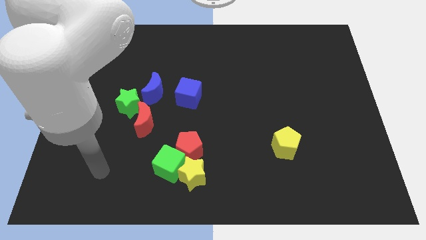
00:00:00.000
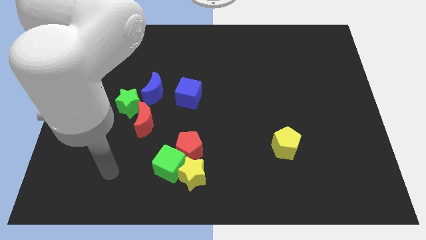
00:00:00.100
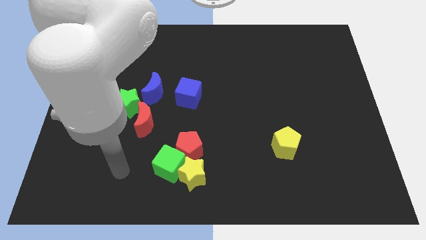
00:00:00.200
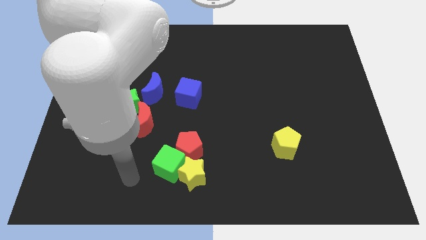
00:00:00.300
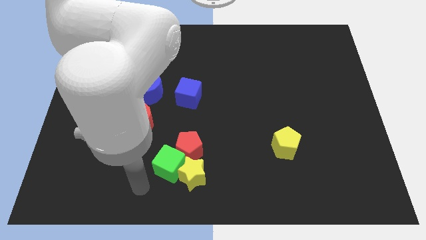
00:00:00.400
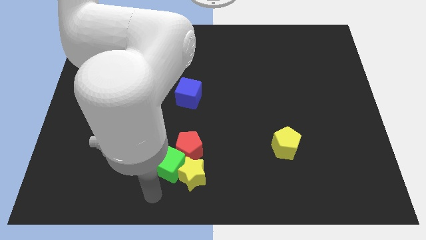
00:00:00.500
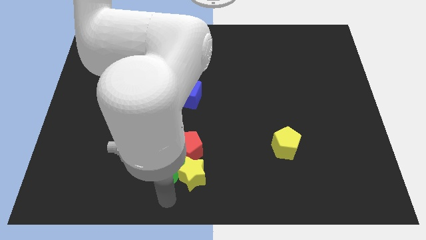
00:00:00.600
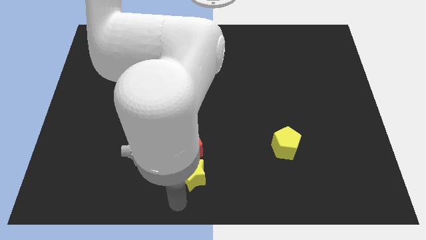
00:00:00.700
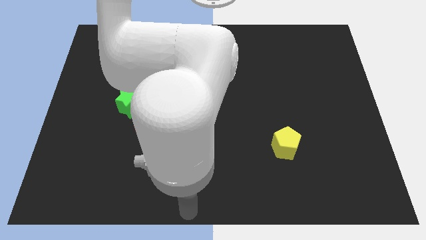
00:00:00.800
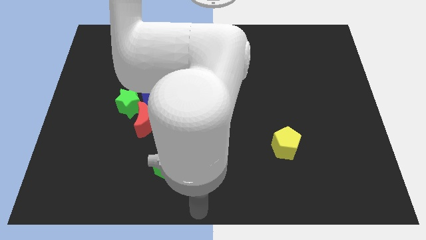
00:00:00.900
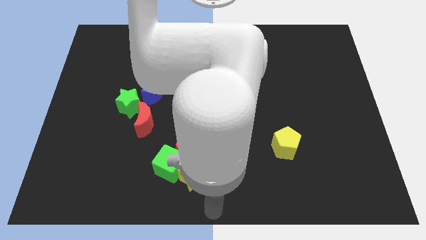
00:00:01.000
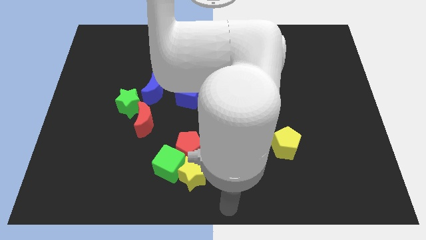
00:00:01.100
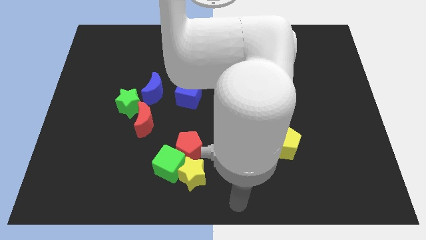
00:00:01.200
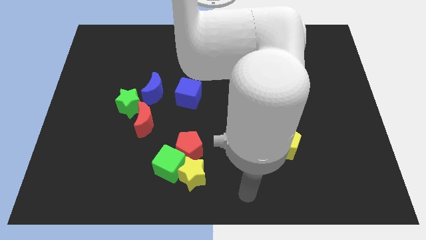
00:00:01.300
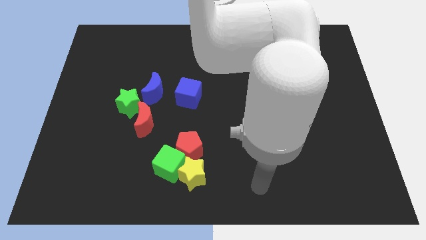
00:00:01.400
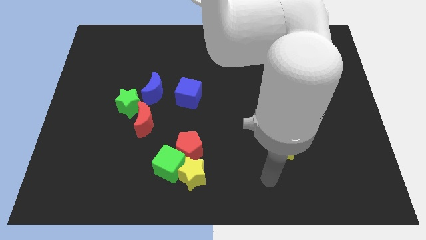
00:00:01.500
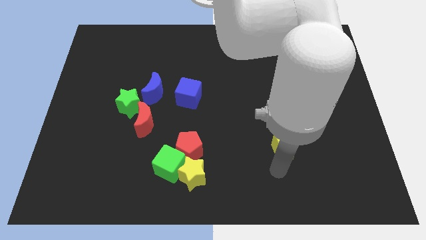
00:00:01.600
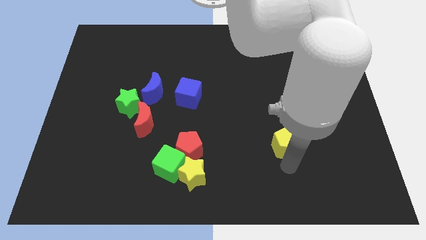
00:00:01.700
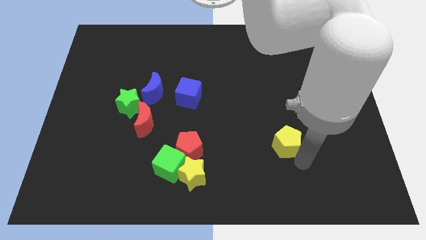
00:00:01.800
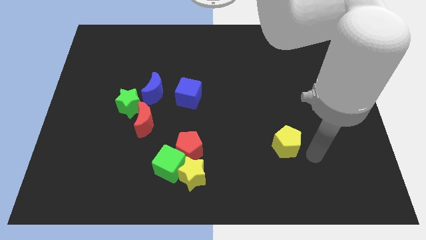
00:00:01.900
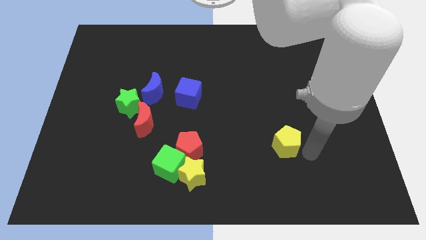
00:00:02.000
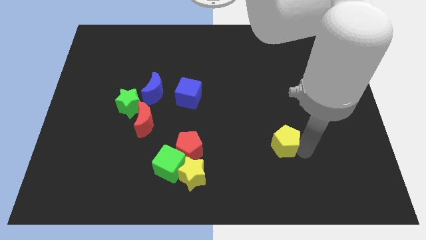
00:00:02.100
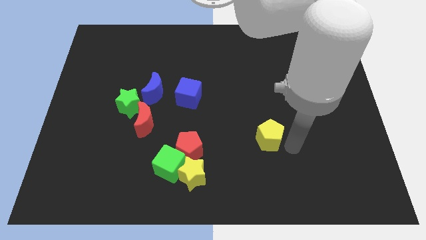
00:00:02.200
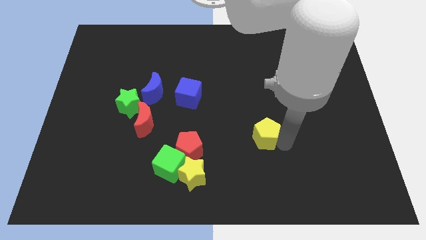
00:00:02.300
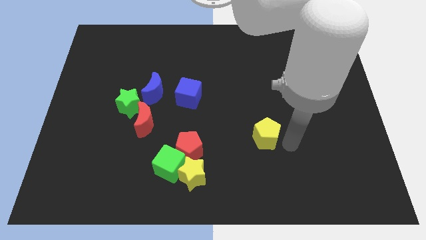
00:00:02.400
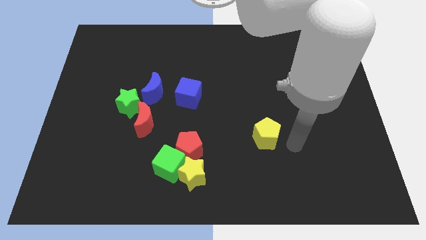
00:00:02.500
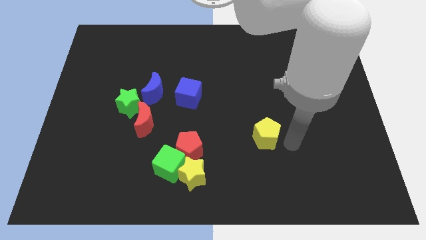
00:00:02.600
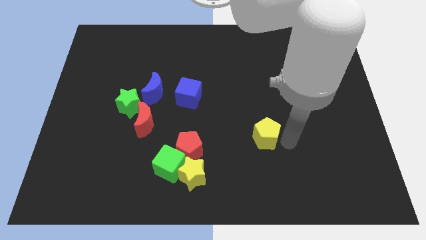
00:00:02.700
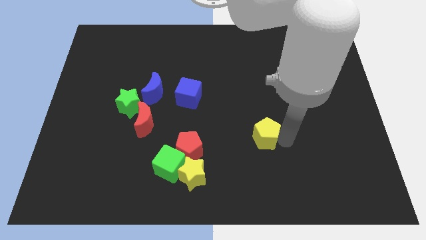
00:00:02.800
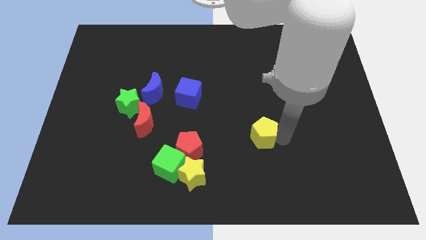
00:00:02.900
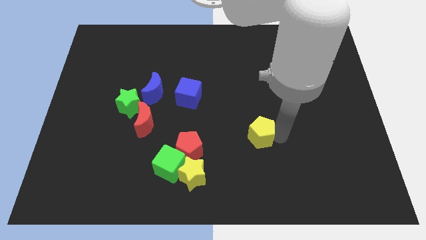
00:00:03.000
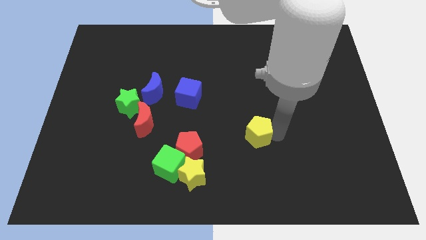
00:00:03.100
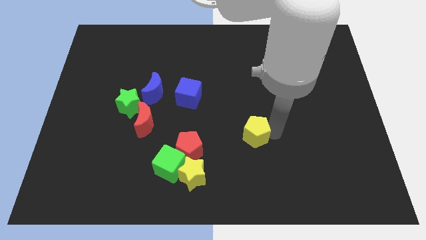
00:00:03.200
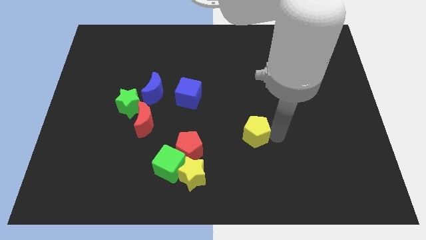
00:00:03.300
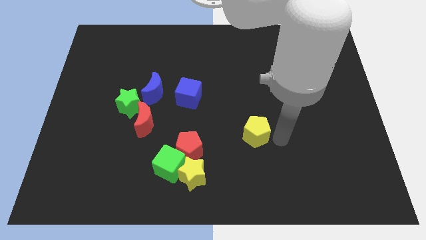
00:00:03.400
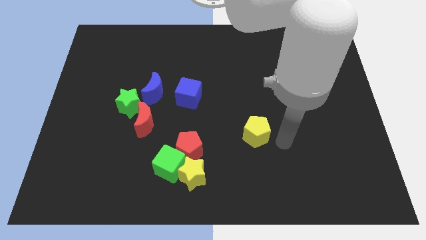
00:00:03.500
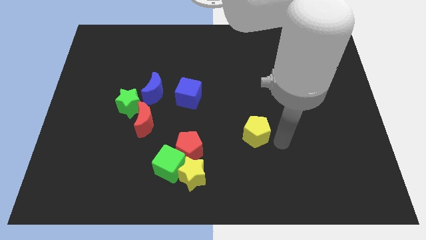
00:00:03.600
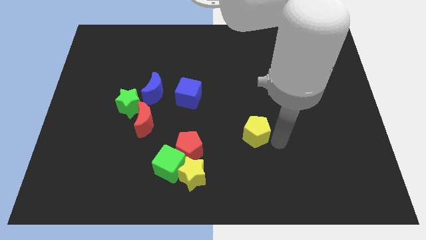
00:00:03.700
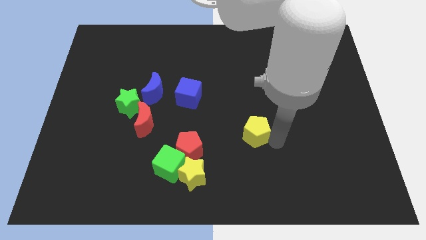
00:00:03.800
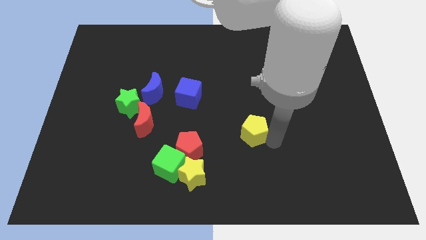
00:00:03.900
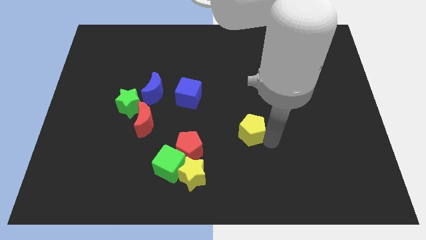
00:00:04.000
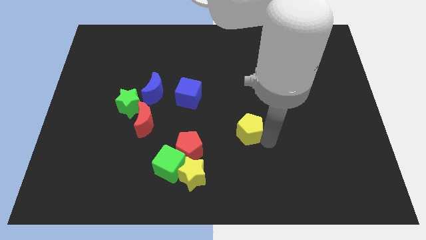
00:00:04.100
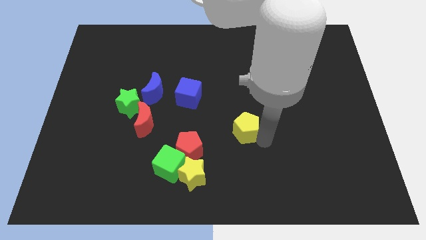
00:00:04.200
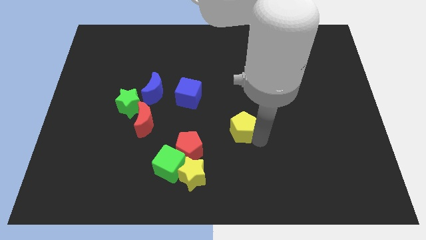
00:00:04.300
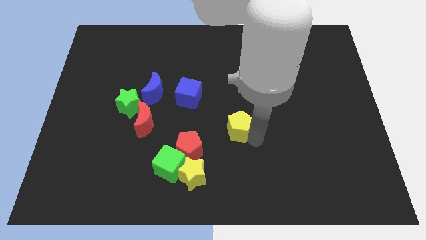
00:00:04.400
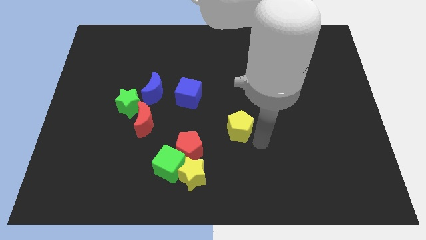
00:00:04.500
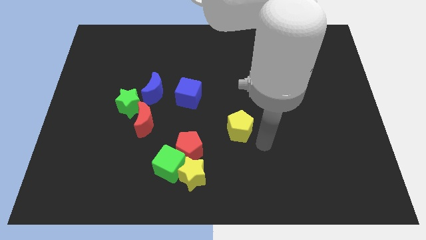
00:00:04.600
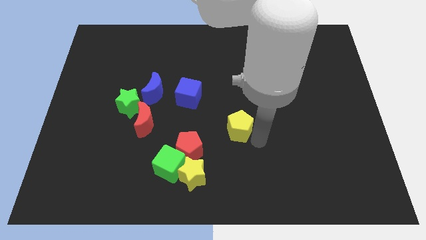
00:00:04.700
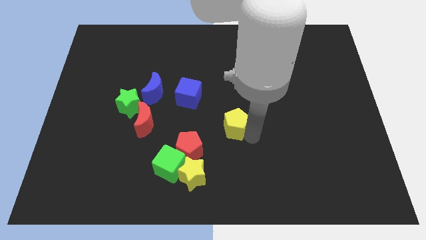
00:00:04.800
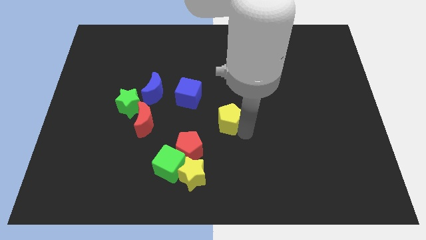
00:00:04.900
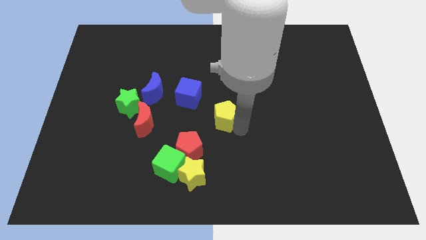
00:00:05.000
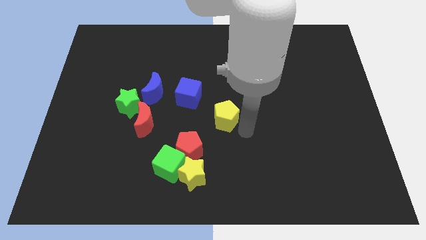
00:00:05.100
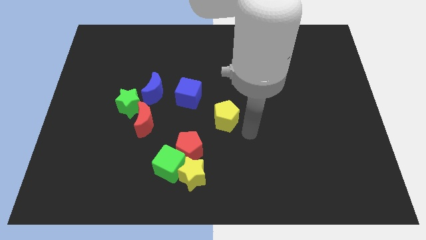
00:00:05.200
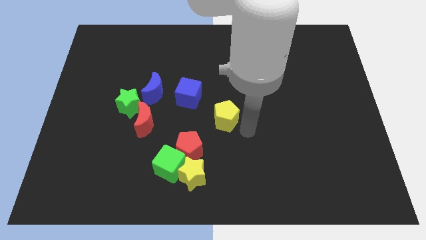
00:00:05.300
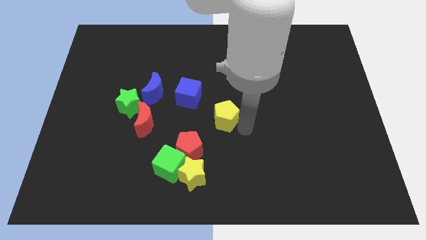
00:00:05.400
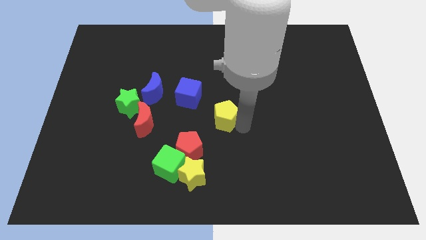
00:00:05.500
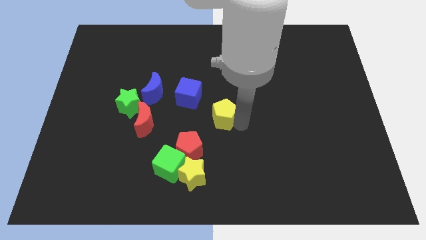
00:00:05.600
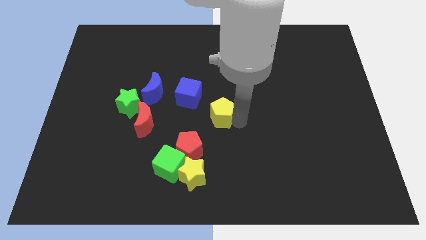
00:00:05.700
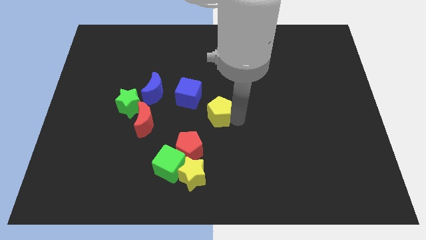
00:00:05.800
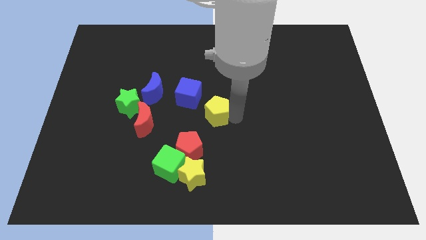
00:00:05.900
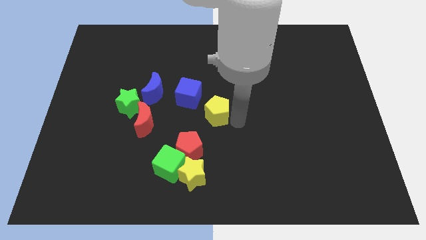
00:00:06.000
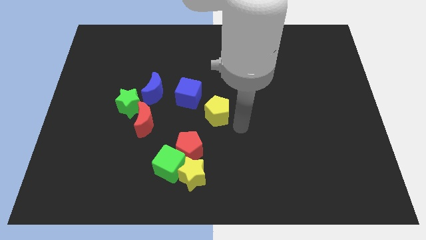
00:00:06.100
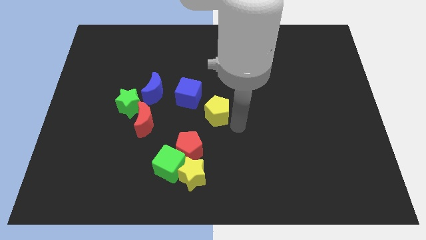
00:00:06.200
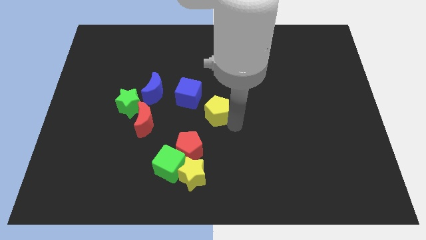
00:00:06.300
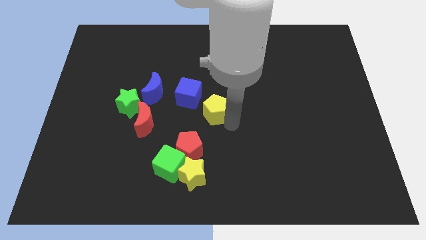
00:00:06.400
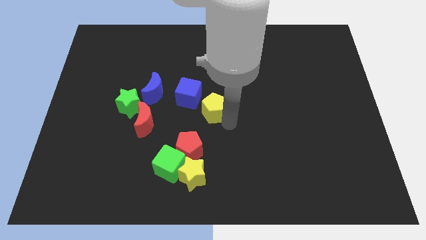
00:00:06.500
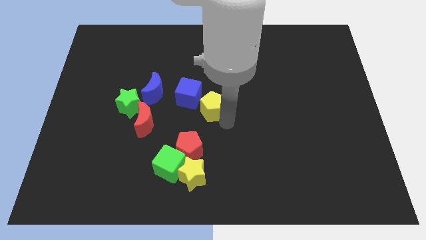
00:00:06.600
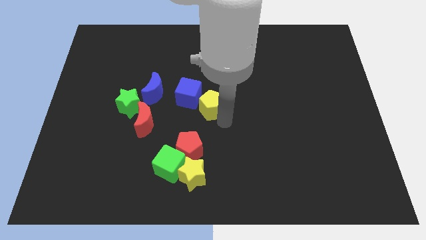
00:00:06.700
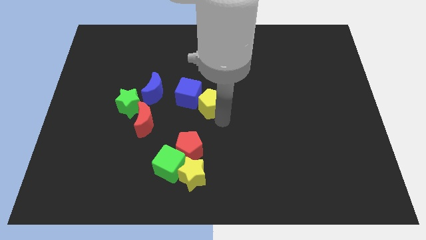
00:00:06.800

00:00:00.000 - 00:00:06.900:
push the yellow pentagon to the blue cube

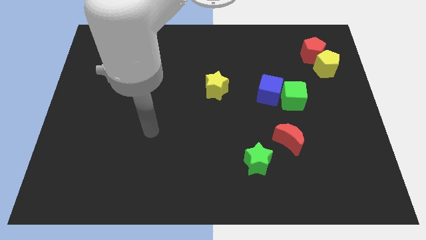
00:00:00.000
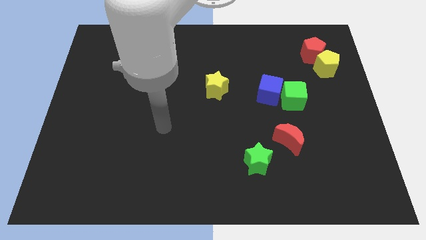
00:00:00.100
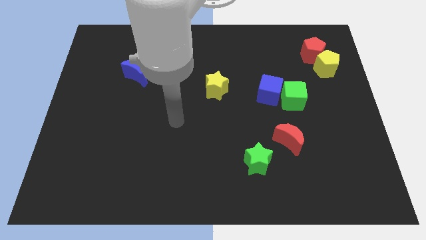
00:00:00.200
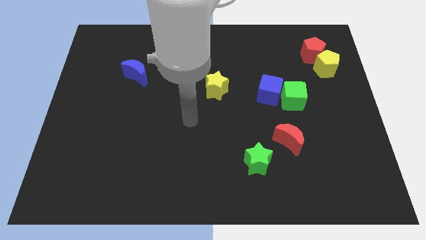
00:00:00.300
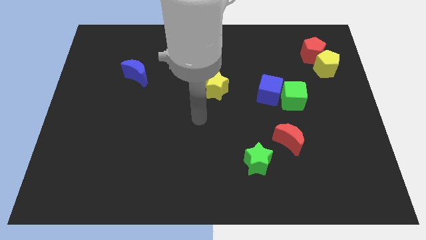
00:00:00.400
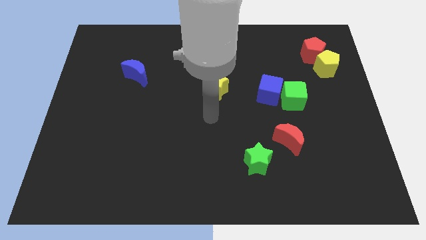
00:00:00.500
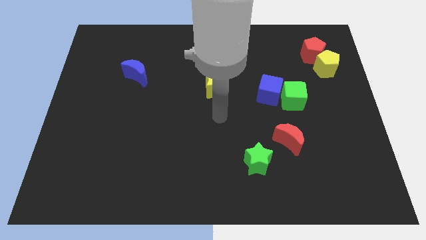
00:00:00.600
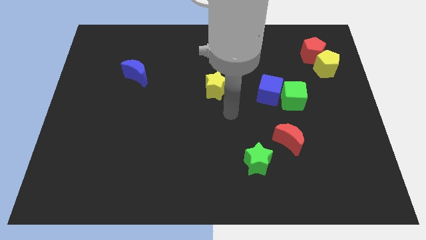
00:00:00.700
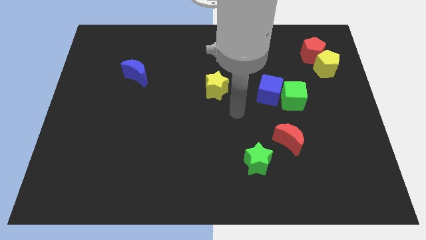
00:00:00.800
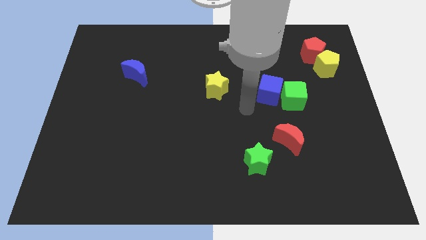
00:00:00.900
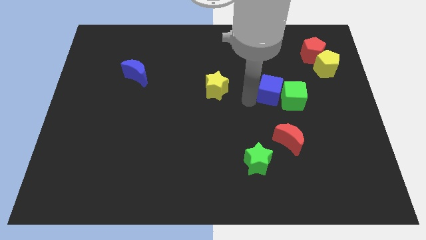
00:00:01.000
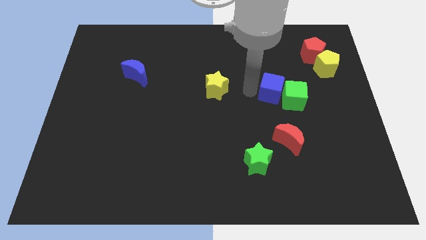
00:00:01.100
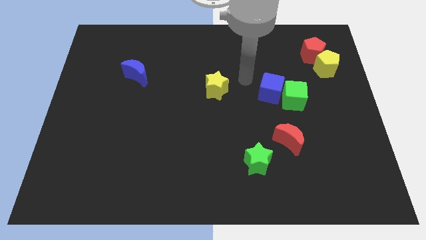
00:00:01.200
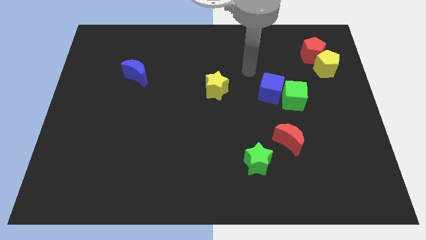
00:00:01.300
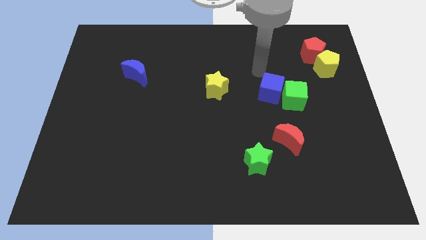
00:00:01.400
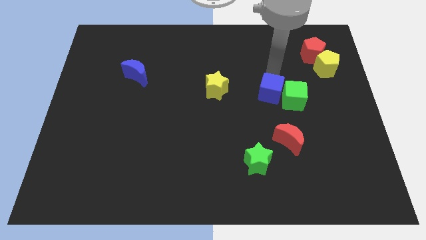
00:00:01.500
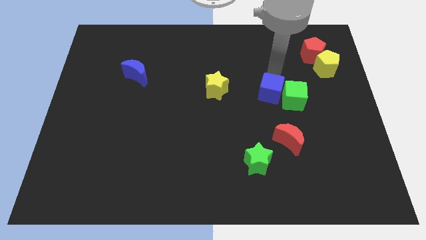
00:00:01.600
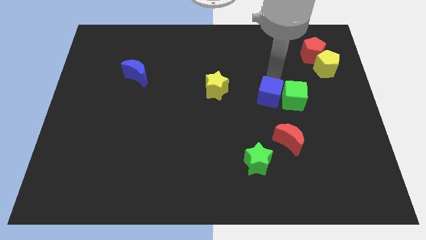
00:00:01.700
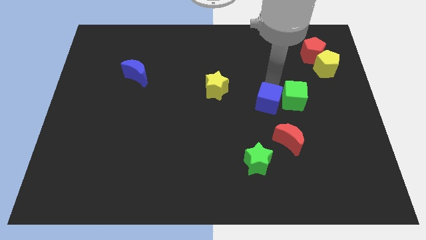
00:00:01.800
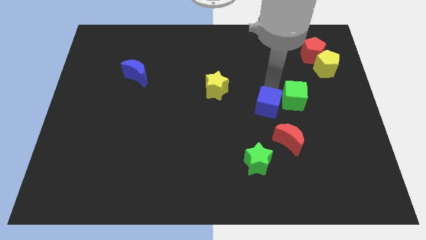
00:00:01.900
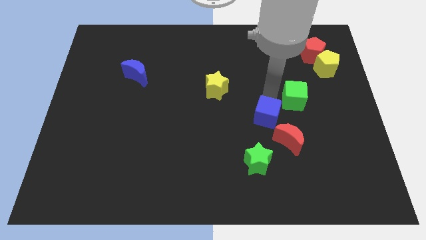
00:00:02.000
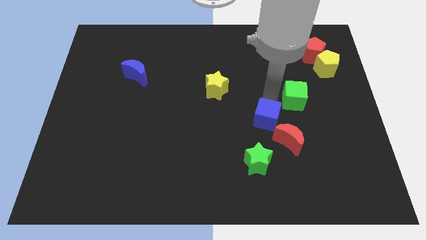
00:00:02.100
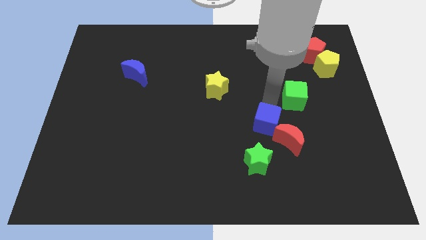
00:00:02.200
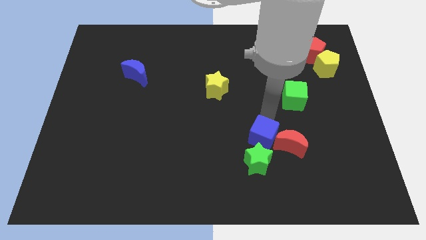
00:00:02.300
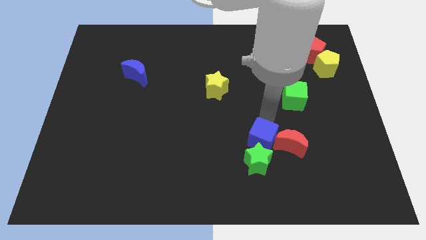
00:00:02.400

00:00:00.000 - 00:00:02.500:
slide the blue cube close to the green star
